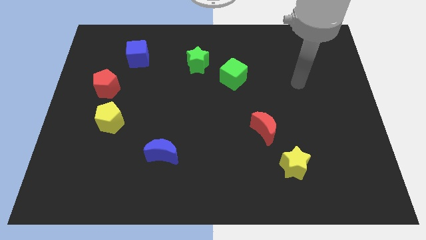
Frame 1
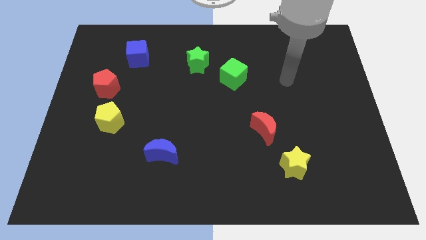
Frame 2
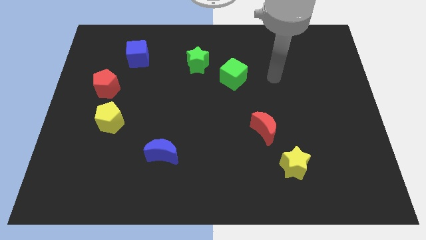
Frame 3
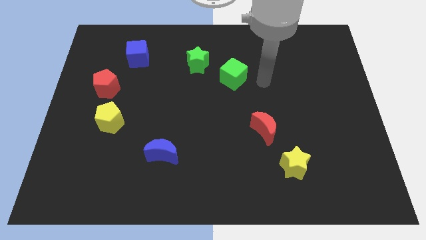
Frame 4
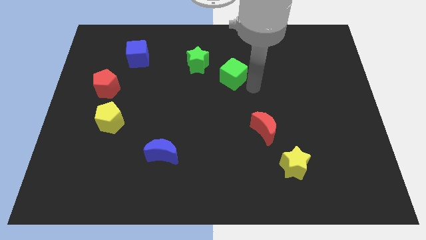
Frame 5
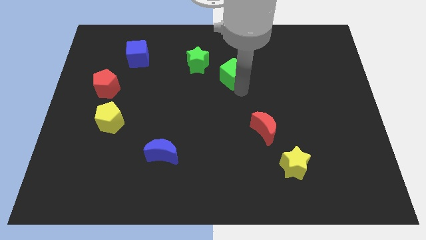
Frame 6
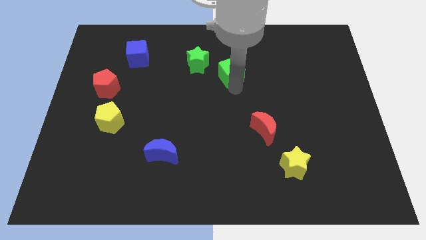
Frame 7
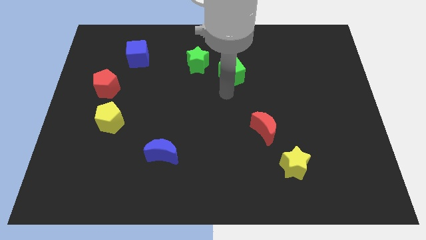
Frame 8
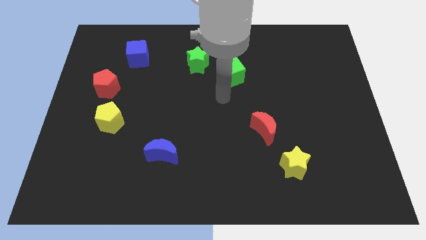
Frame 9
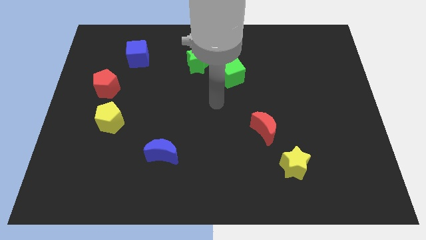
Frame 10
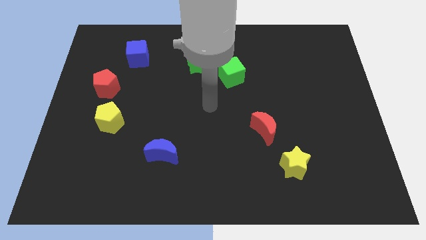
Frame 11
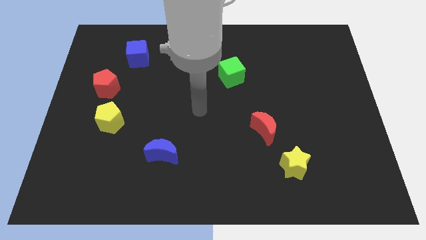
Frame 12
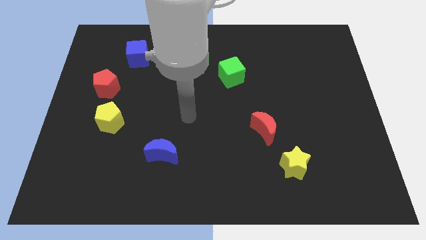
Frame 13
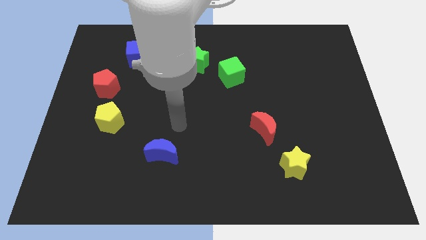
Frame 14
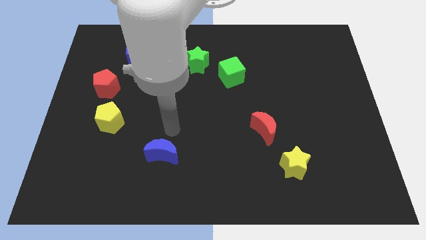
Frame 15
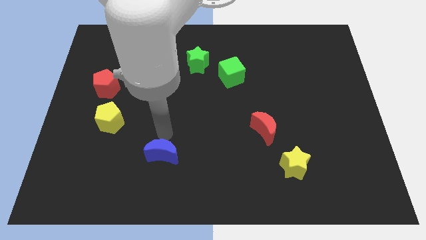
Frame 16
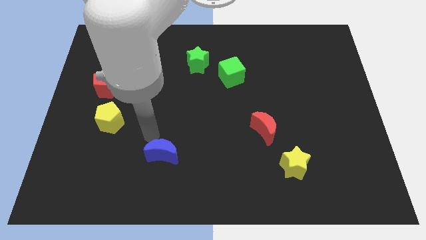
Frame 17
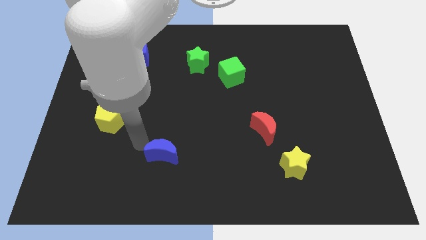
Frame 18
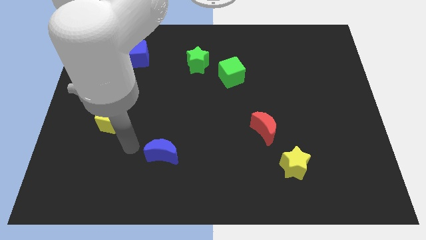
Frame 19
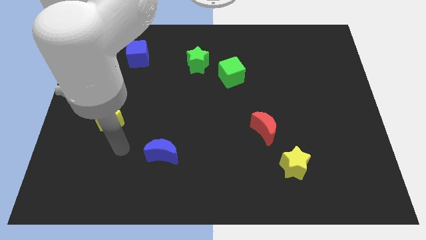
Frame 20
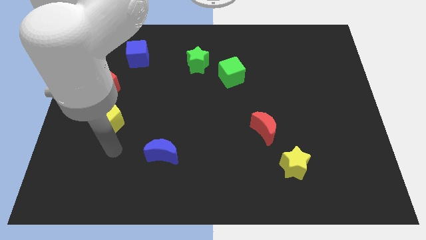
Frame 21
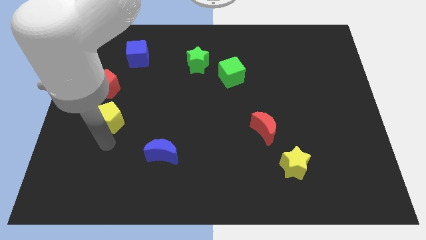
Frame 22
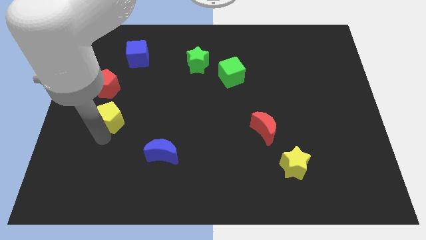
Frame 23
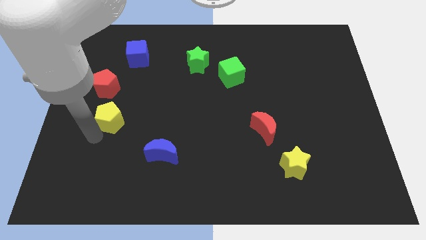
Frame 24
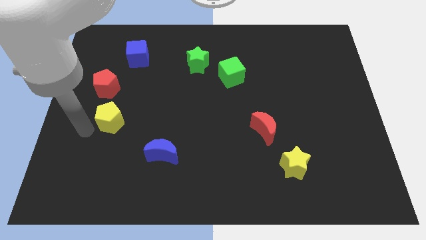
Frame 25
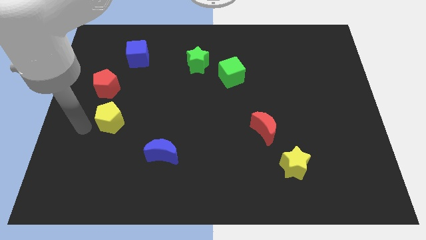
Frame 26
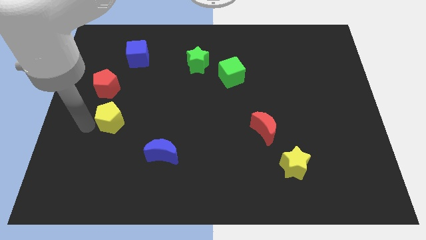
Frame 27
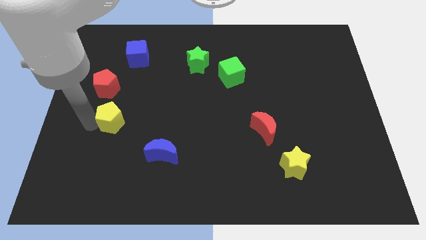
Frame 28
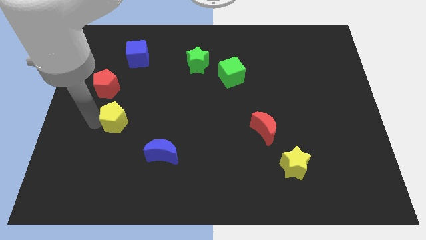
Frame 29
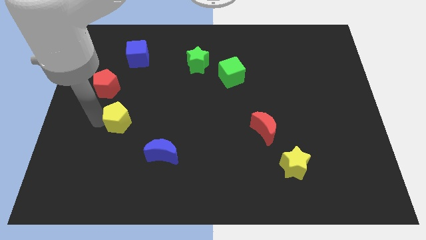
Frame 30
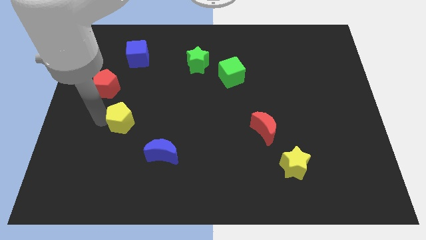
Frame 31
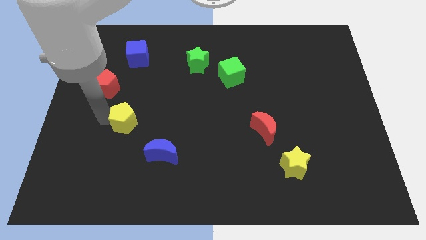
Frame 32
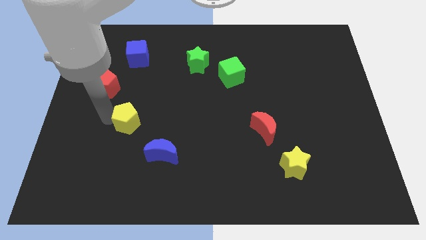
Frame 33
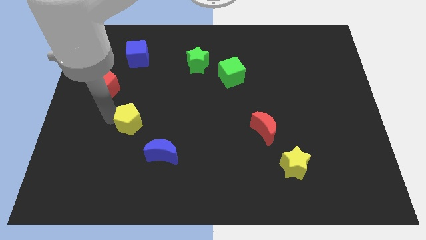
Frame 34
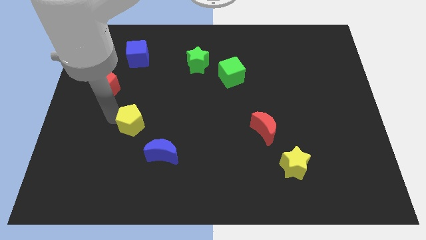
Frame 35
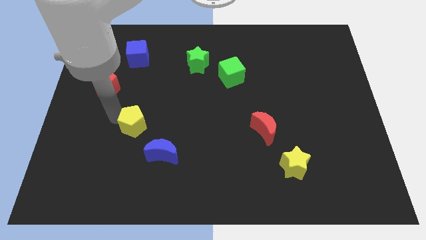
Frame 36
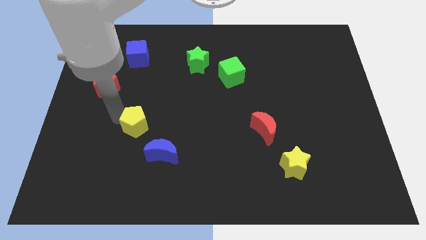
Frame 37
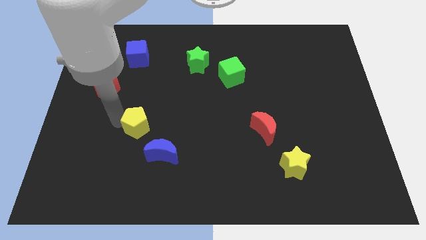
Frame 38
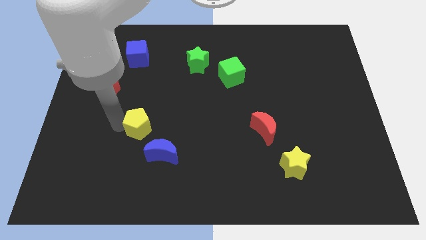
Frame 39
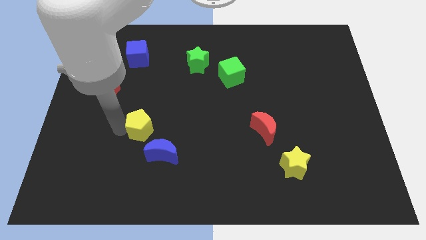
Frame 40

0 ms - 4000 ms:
push the yellow pentagon a little bit to the right

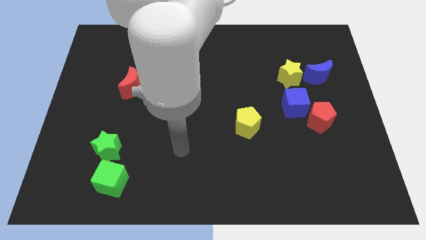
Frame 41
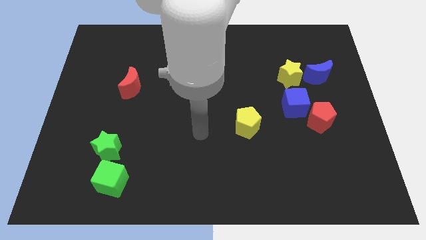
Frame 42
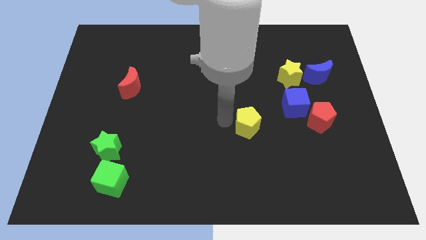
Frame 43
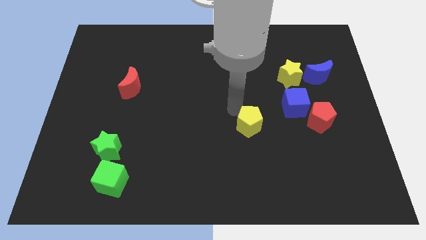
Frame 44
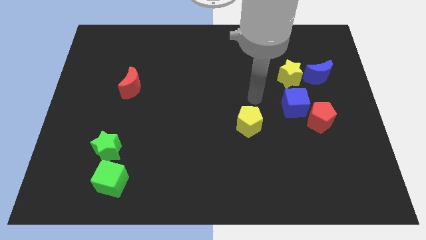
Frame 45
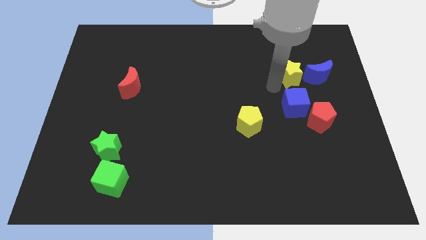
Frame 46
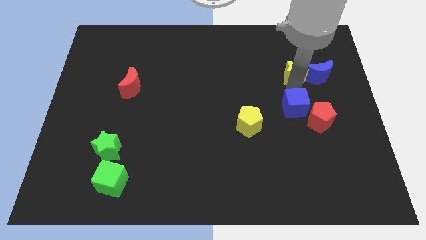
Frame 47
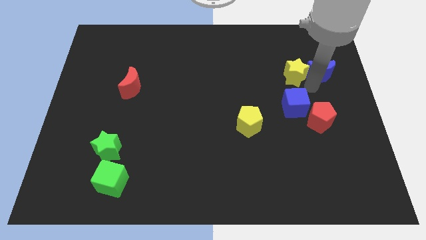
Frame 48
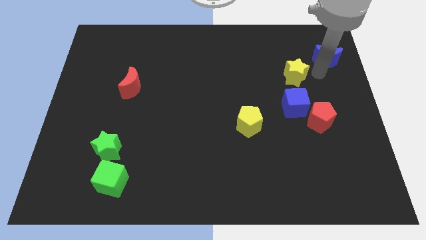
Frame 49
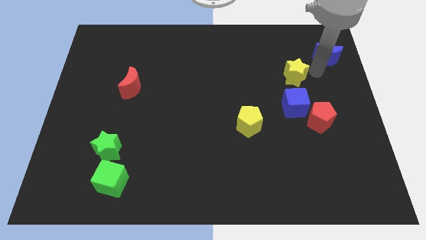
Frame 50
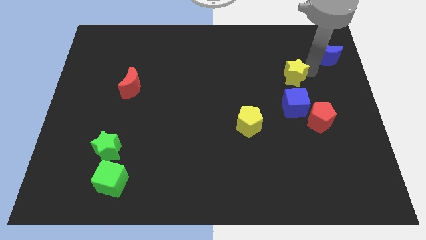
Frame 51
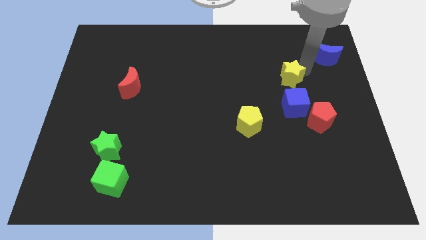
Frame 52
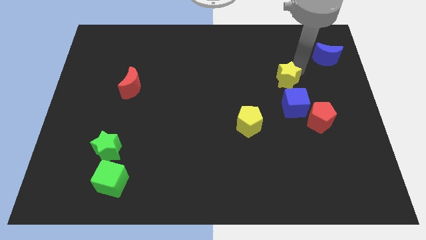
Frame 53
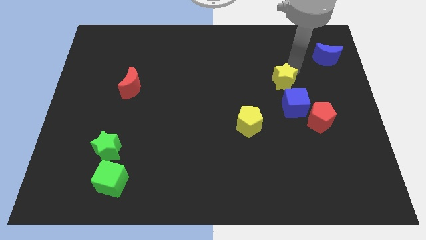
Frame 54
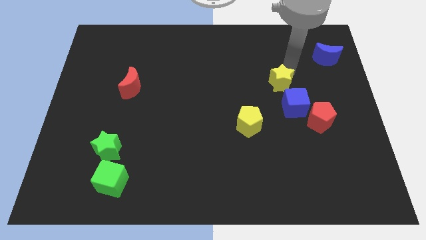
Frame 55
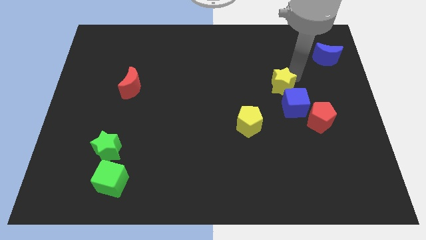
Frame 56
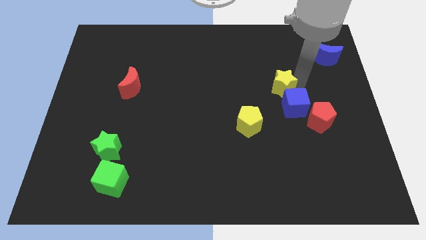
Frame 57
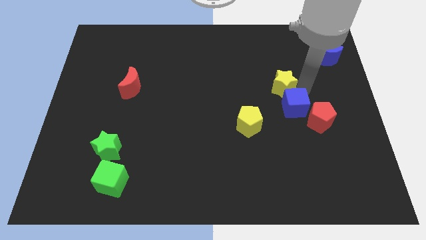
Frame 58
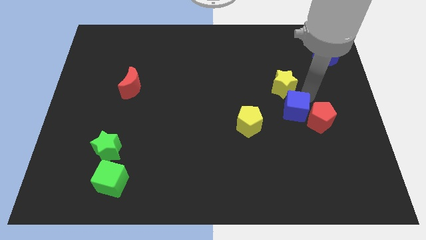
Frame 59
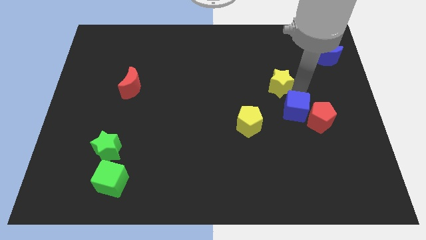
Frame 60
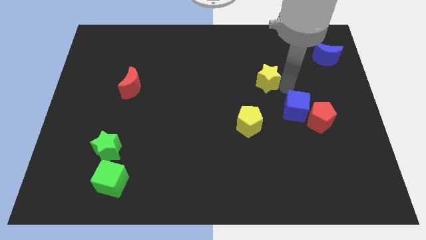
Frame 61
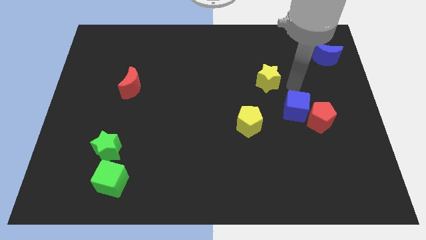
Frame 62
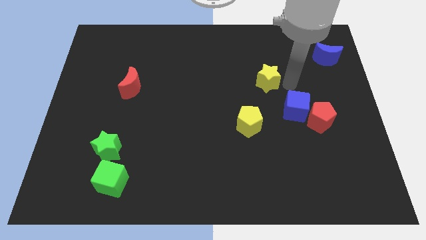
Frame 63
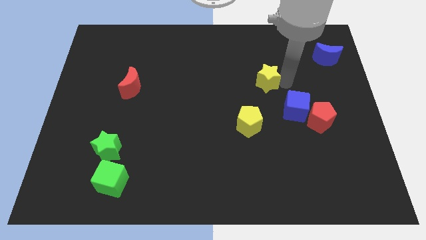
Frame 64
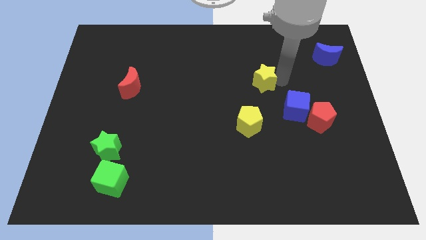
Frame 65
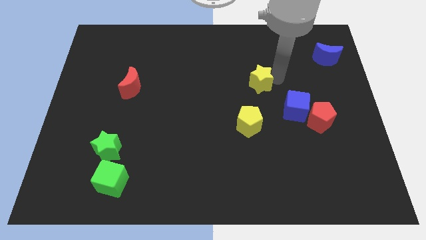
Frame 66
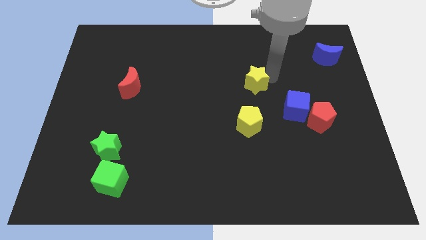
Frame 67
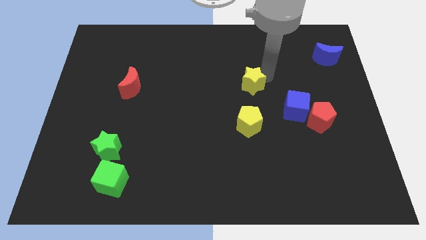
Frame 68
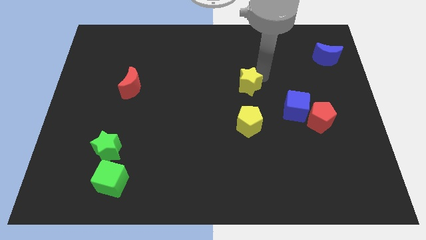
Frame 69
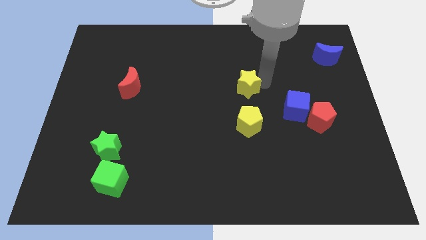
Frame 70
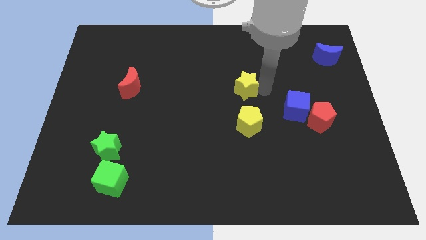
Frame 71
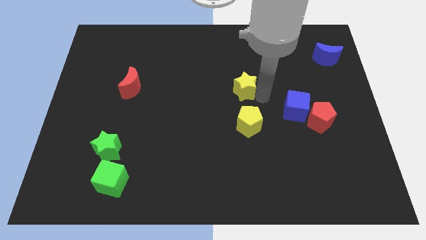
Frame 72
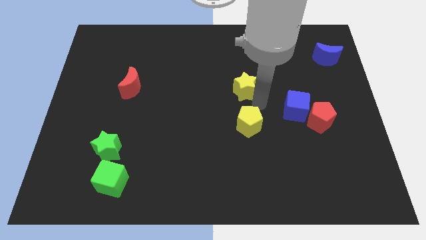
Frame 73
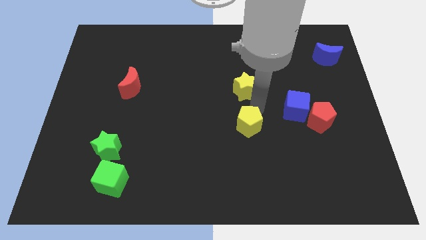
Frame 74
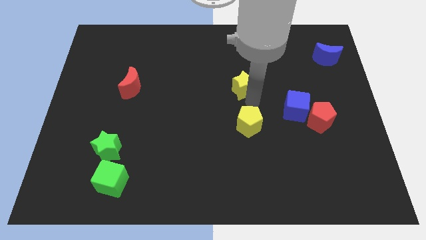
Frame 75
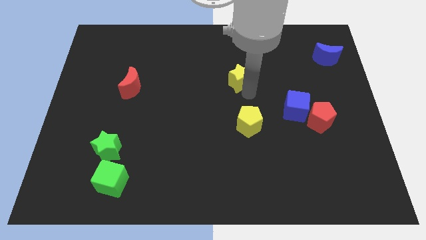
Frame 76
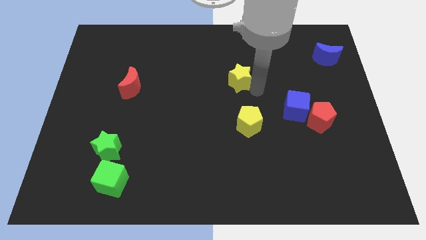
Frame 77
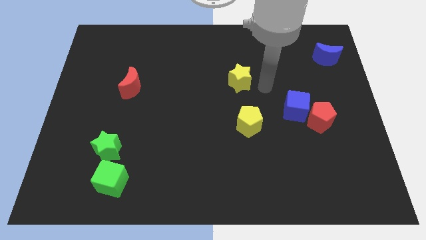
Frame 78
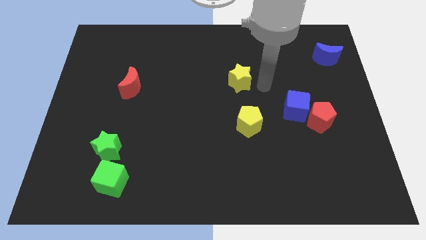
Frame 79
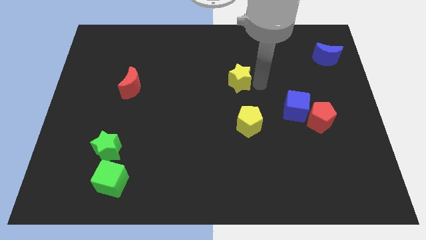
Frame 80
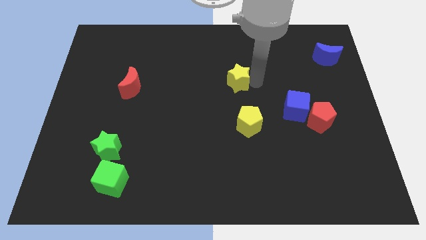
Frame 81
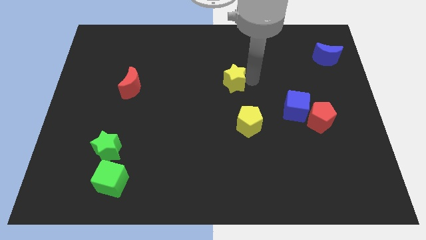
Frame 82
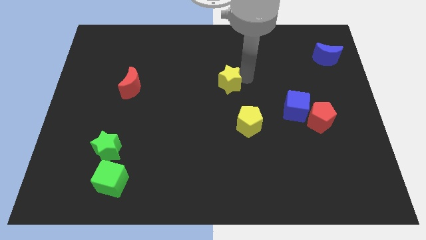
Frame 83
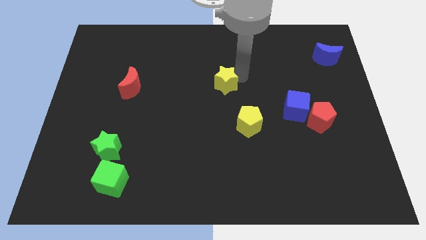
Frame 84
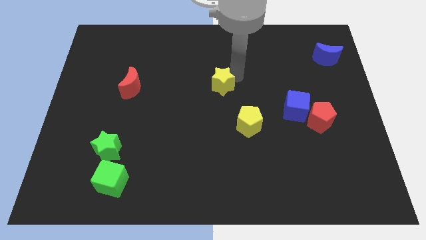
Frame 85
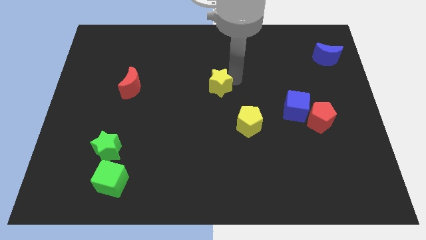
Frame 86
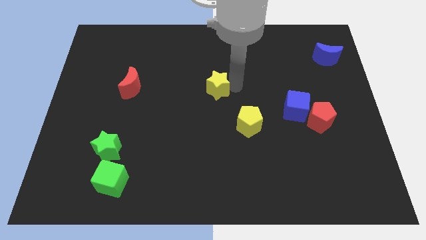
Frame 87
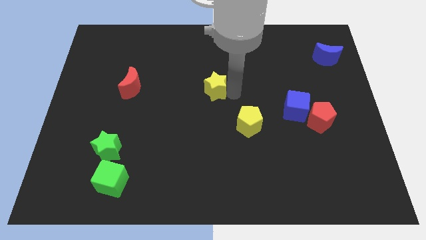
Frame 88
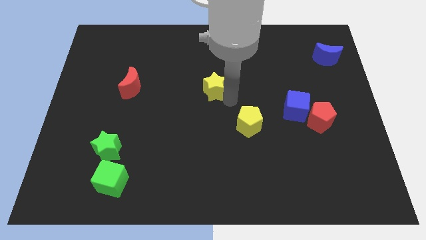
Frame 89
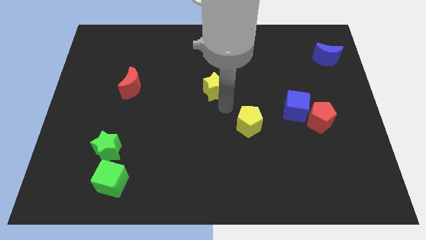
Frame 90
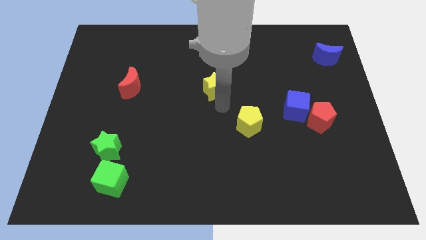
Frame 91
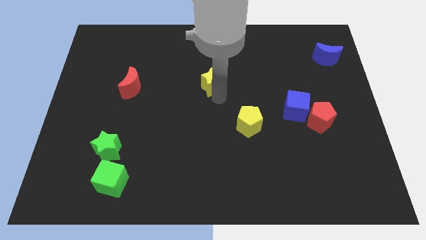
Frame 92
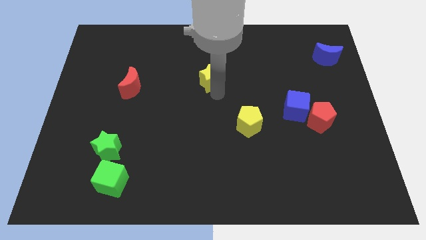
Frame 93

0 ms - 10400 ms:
push the yellow star to the left
